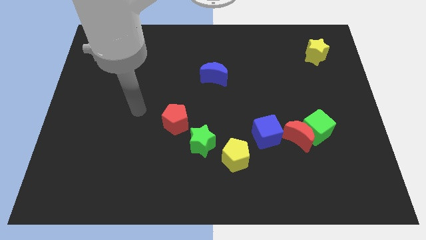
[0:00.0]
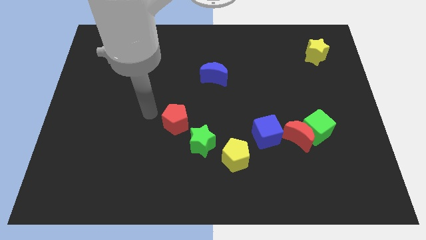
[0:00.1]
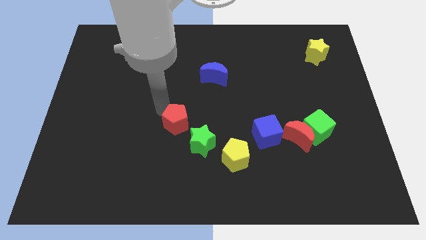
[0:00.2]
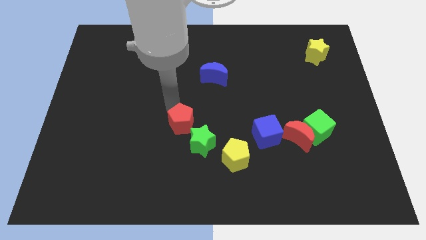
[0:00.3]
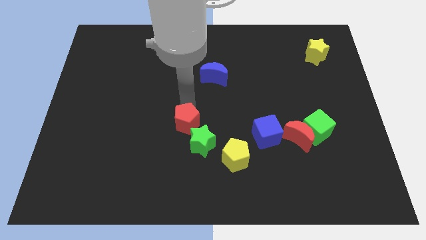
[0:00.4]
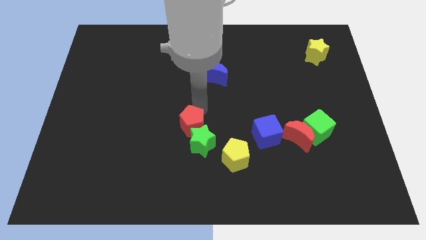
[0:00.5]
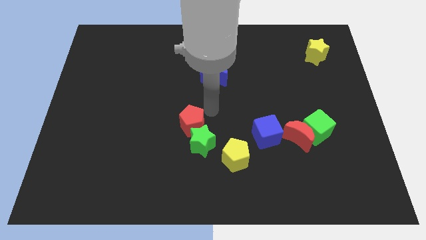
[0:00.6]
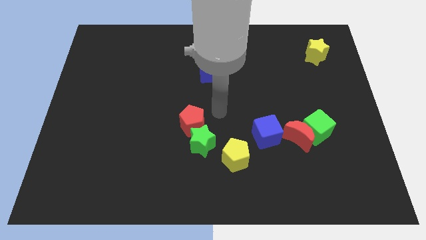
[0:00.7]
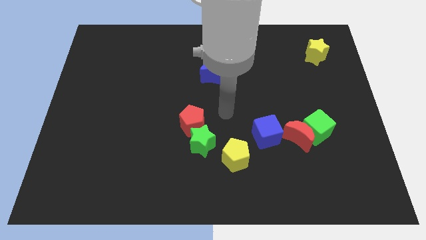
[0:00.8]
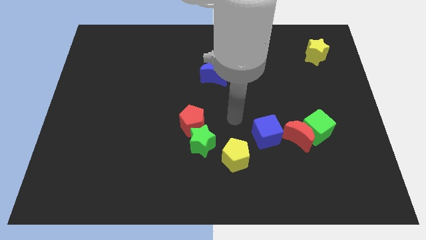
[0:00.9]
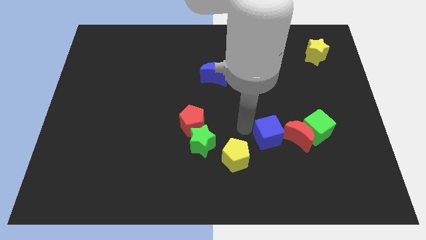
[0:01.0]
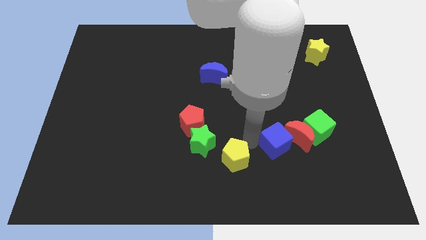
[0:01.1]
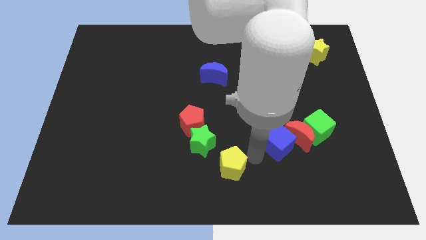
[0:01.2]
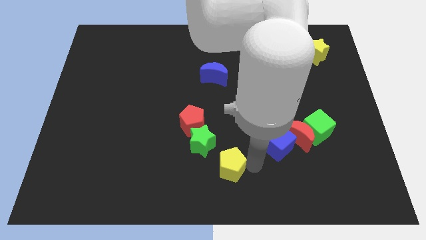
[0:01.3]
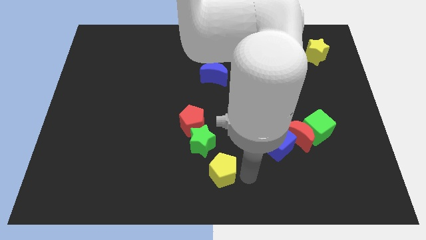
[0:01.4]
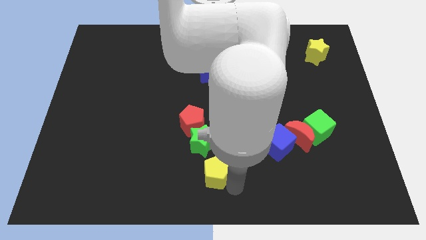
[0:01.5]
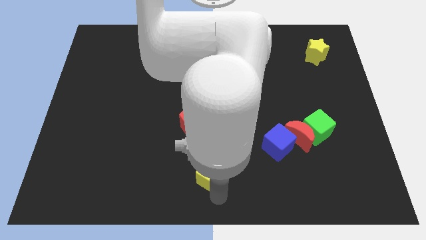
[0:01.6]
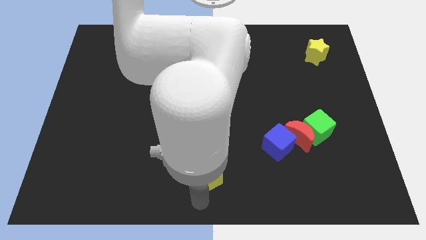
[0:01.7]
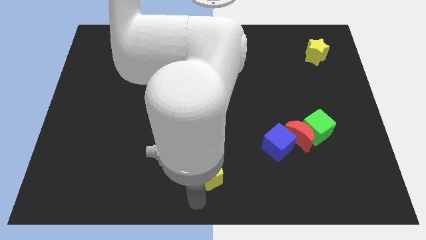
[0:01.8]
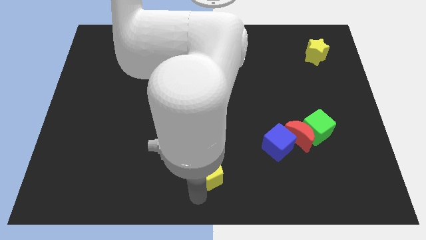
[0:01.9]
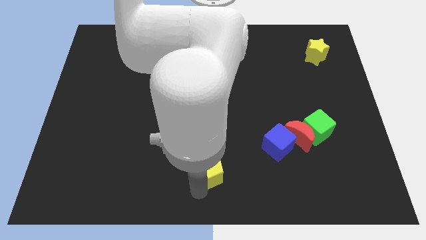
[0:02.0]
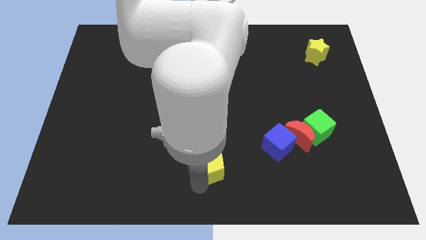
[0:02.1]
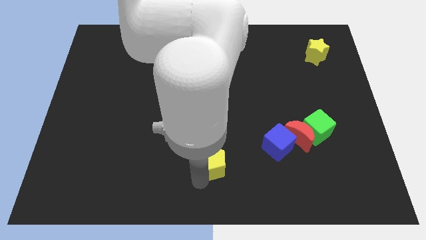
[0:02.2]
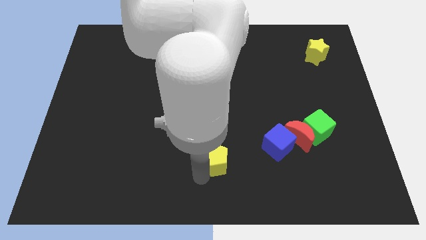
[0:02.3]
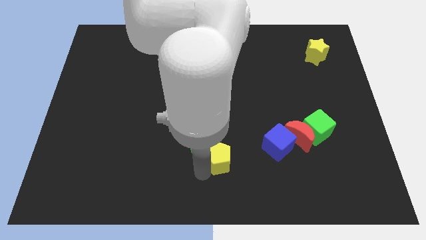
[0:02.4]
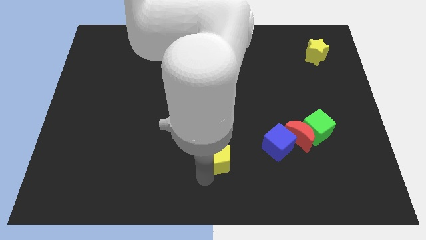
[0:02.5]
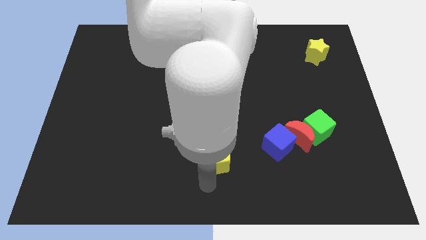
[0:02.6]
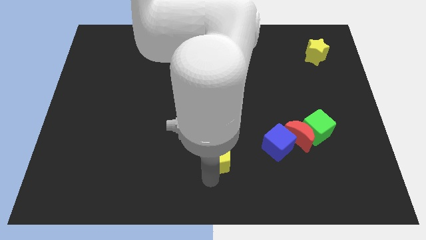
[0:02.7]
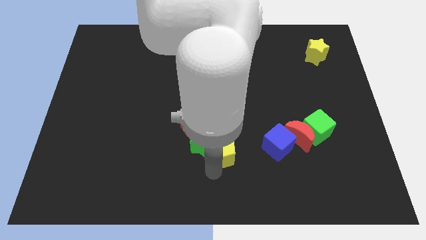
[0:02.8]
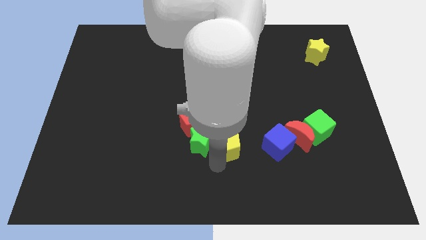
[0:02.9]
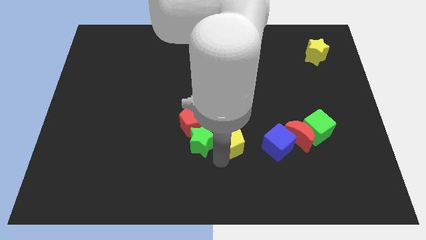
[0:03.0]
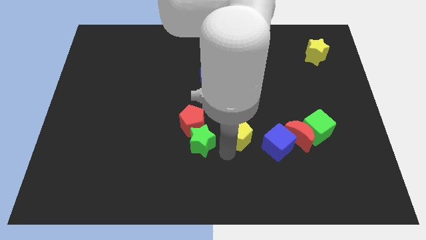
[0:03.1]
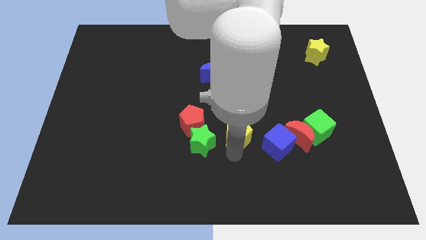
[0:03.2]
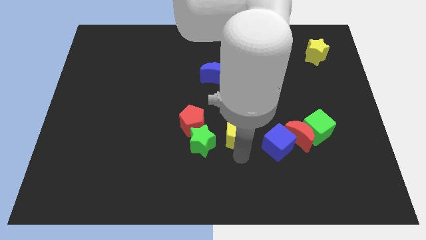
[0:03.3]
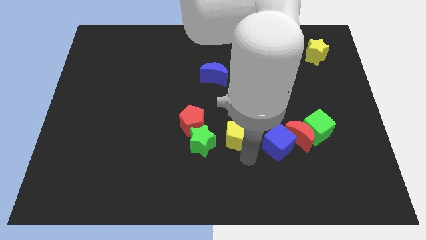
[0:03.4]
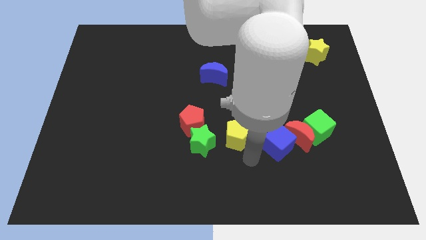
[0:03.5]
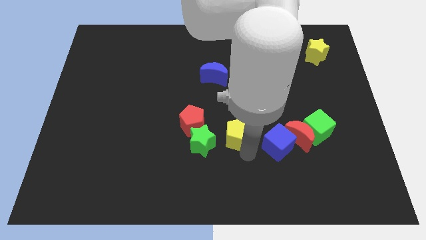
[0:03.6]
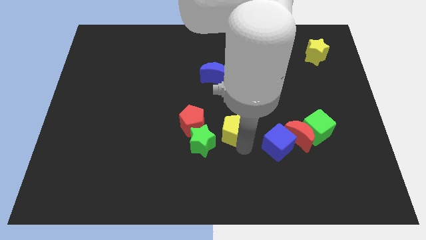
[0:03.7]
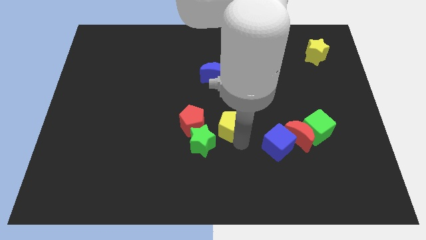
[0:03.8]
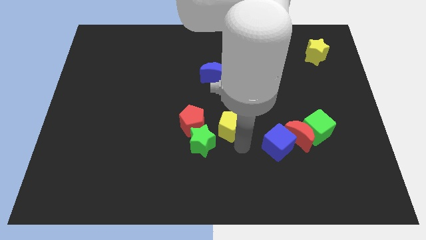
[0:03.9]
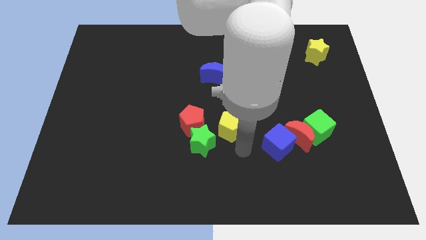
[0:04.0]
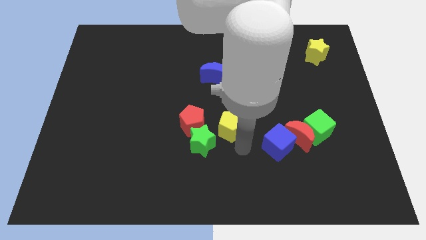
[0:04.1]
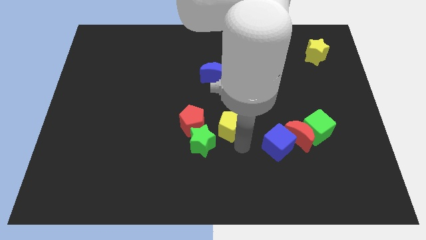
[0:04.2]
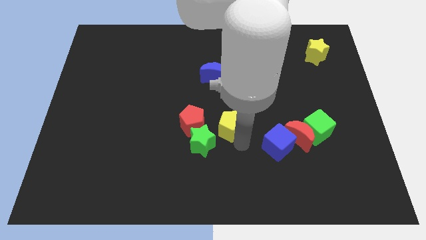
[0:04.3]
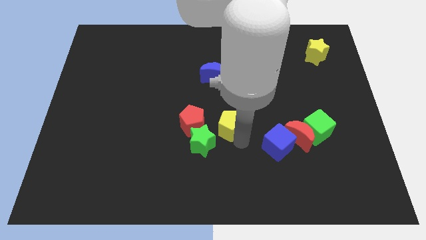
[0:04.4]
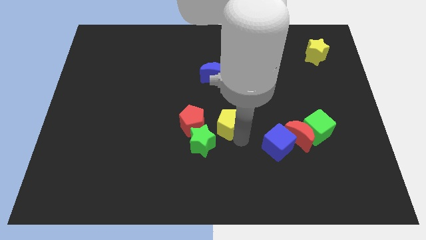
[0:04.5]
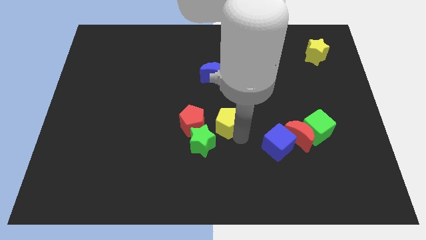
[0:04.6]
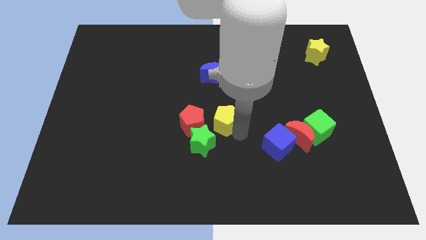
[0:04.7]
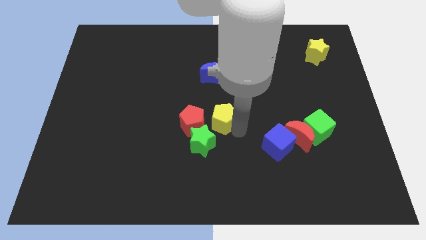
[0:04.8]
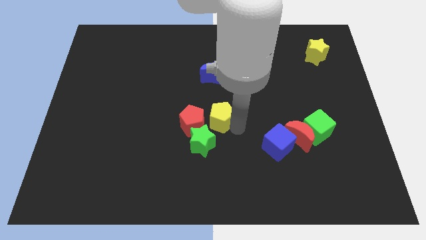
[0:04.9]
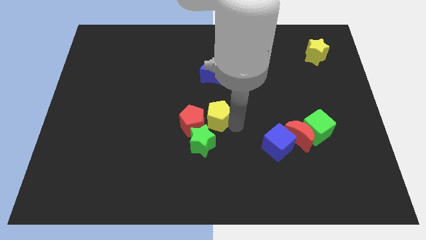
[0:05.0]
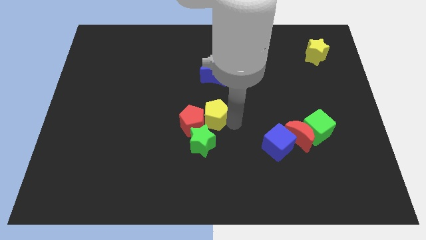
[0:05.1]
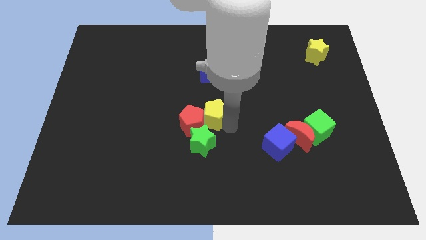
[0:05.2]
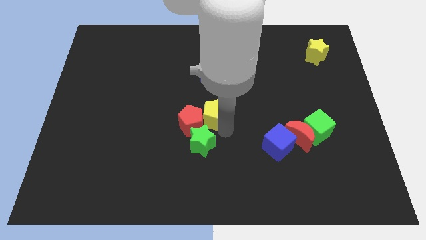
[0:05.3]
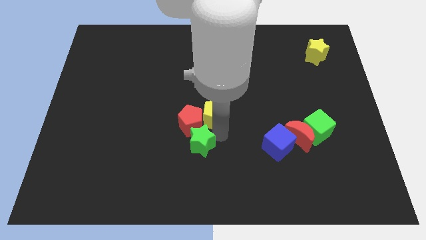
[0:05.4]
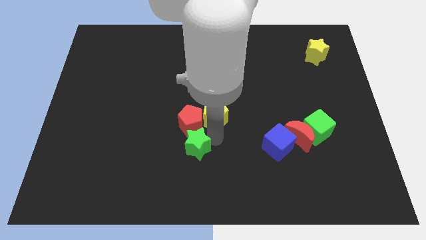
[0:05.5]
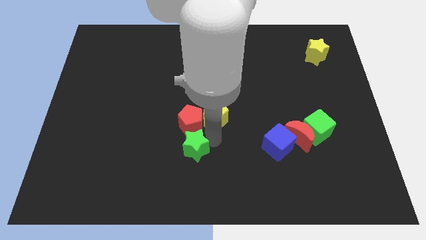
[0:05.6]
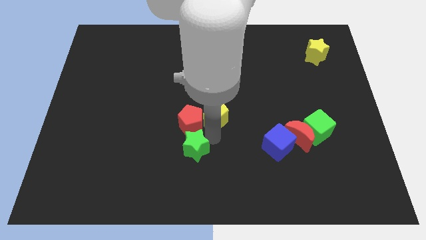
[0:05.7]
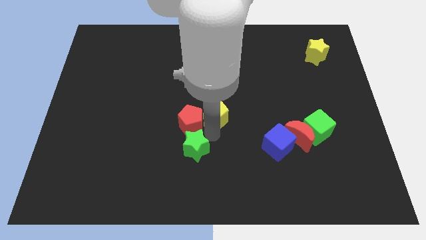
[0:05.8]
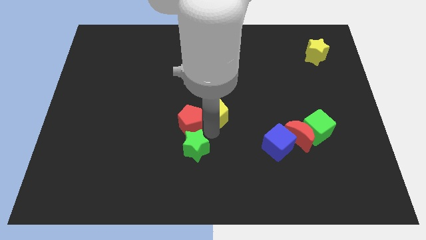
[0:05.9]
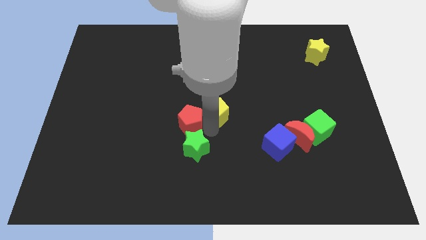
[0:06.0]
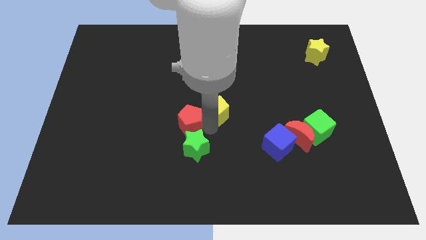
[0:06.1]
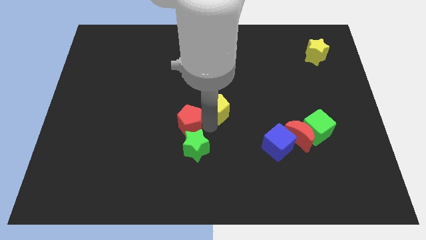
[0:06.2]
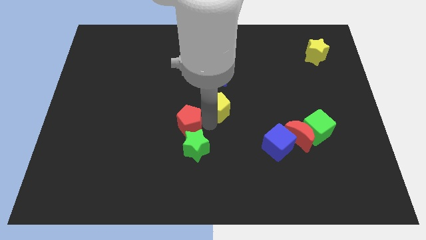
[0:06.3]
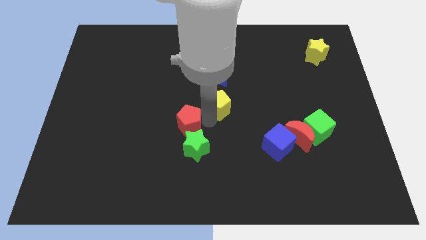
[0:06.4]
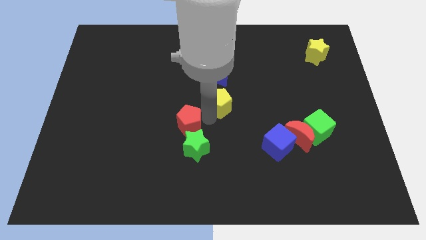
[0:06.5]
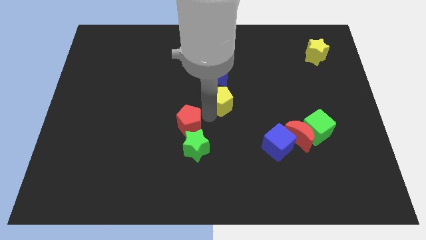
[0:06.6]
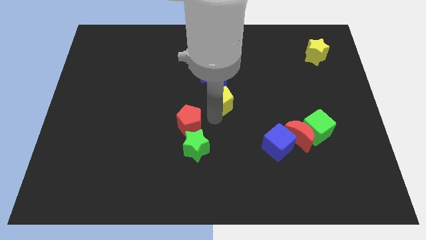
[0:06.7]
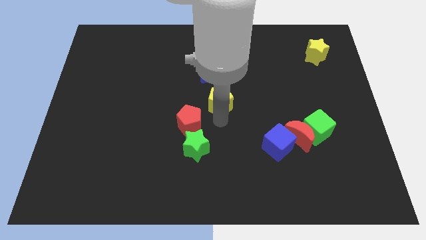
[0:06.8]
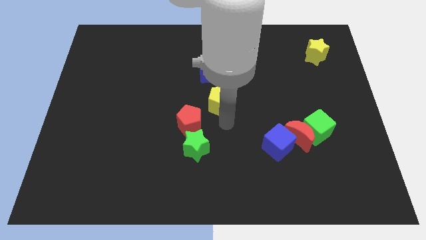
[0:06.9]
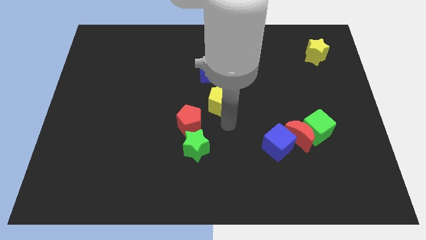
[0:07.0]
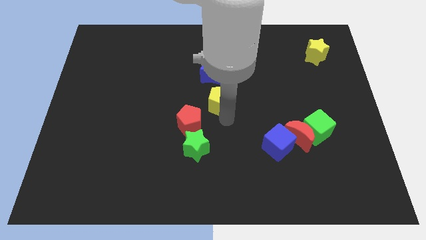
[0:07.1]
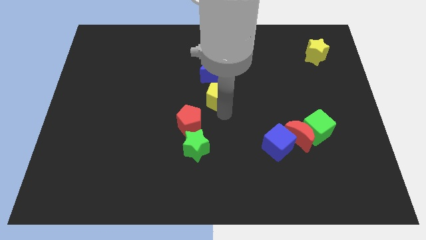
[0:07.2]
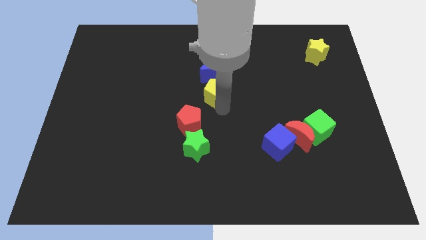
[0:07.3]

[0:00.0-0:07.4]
slide the yellow pentagon close to the blue moon

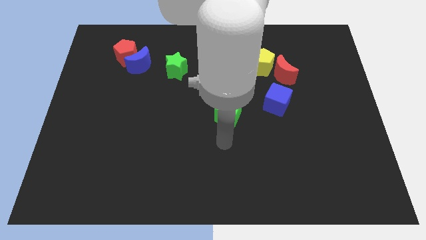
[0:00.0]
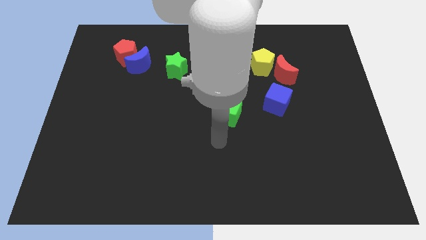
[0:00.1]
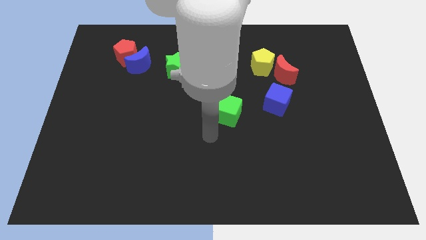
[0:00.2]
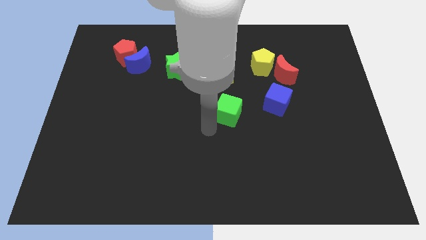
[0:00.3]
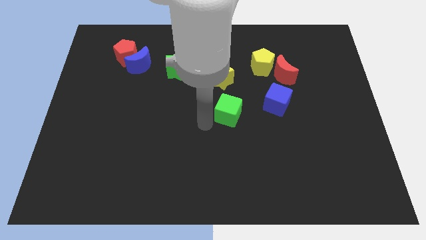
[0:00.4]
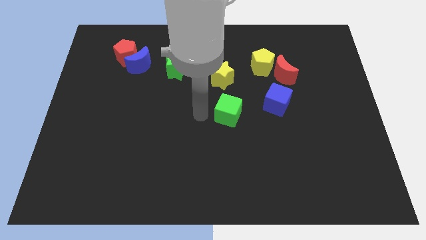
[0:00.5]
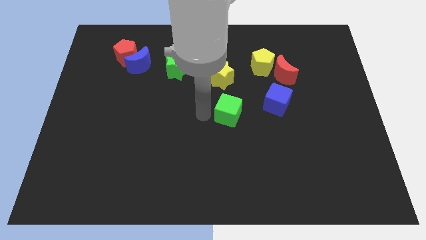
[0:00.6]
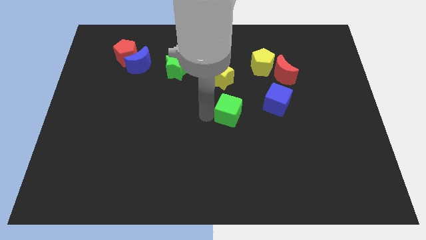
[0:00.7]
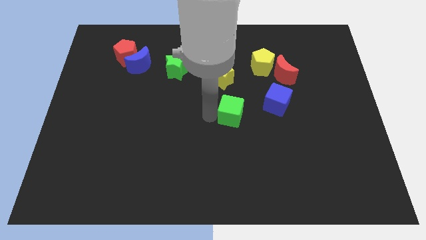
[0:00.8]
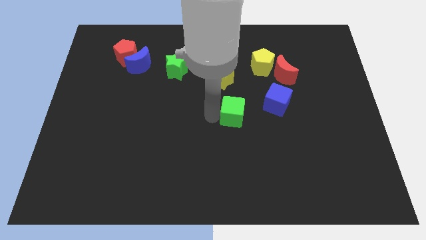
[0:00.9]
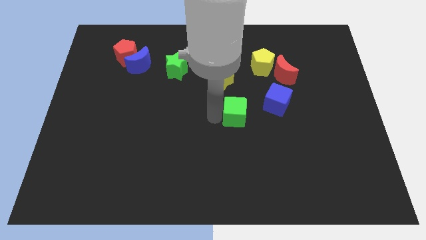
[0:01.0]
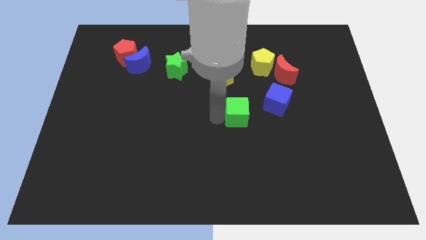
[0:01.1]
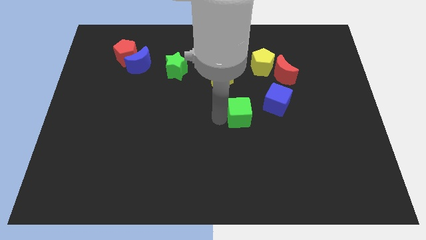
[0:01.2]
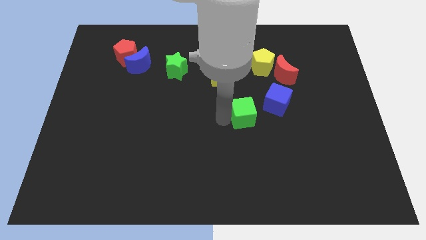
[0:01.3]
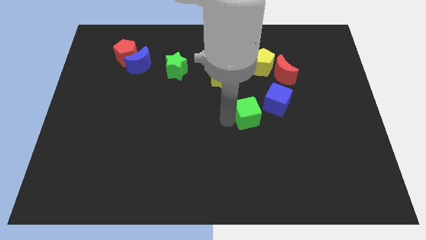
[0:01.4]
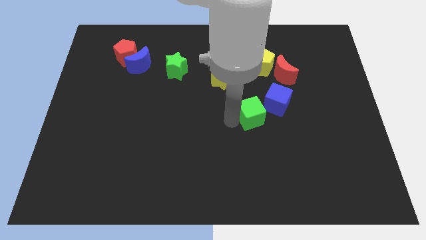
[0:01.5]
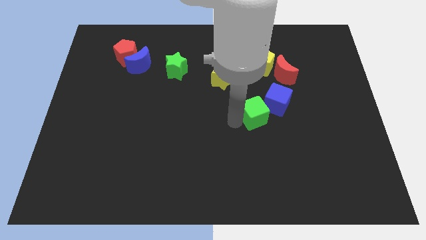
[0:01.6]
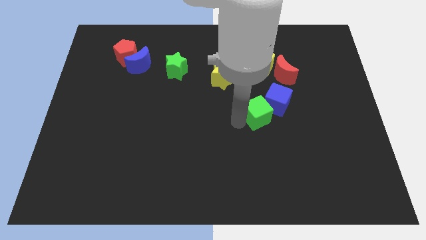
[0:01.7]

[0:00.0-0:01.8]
move the green cube to the blue cube
